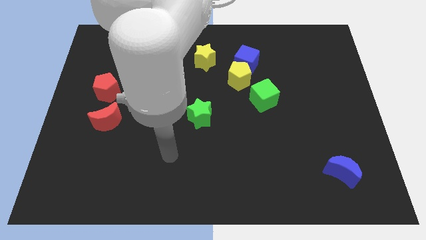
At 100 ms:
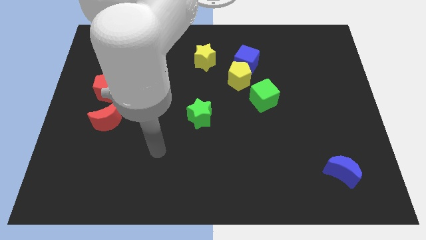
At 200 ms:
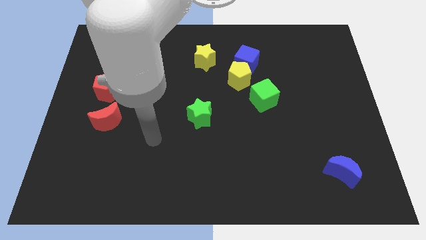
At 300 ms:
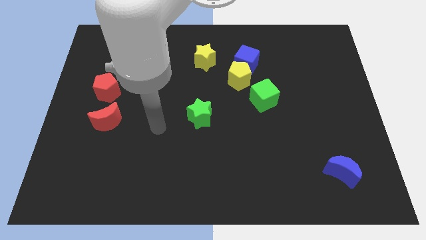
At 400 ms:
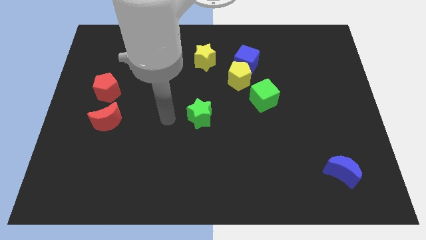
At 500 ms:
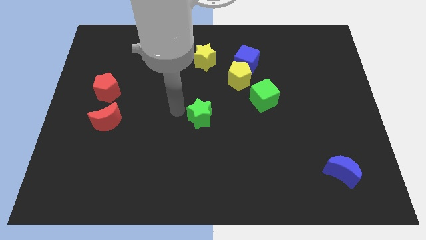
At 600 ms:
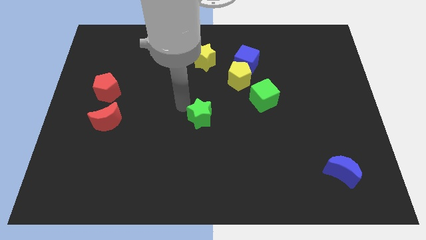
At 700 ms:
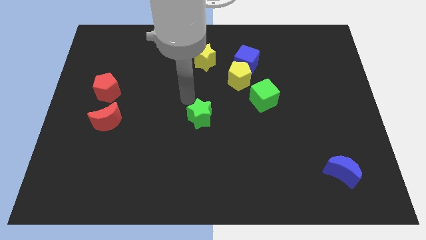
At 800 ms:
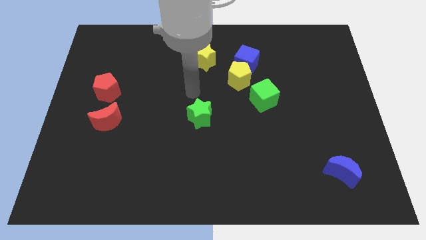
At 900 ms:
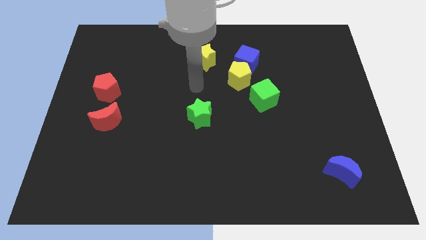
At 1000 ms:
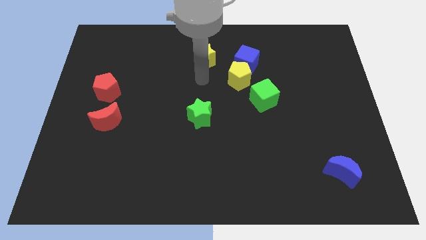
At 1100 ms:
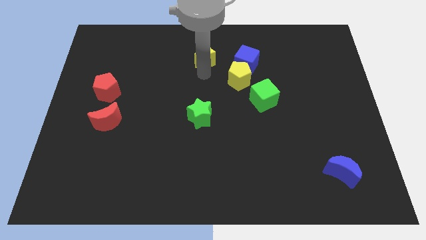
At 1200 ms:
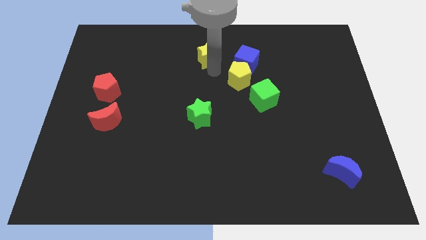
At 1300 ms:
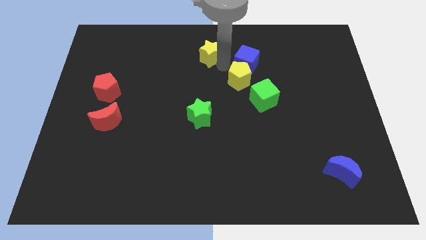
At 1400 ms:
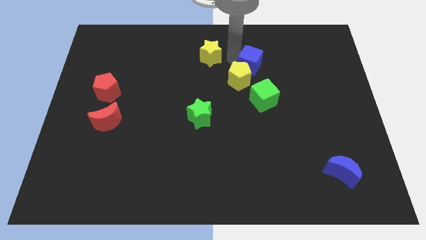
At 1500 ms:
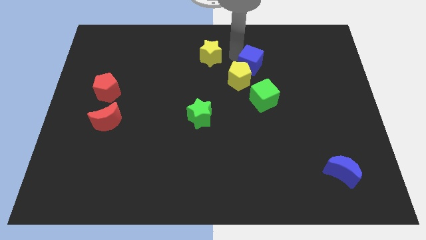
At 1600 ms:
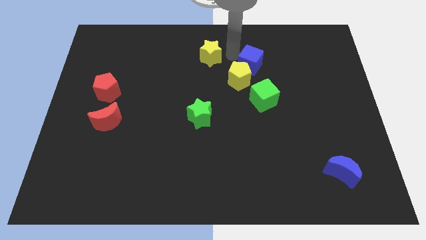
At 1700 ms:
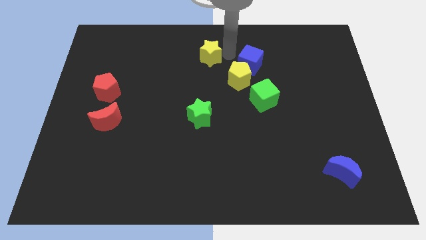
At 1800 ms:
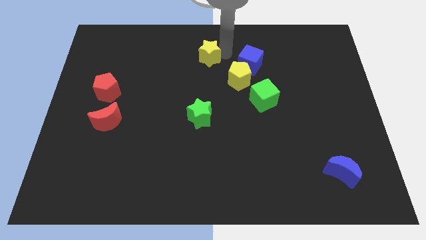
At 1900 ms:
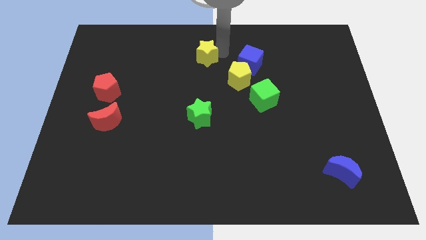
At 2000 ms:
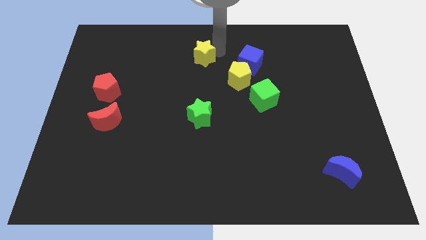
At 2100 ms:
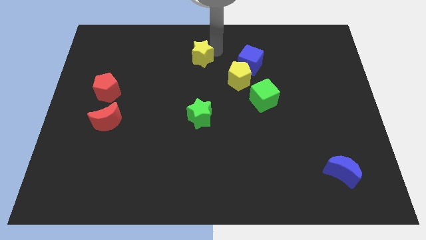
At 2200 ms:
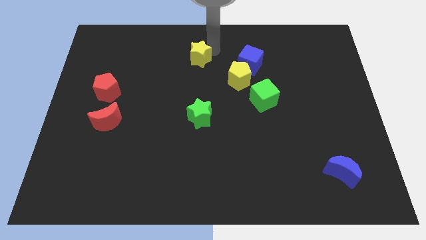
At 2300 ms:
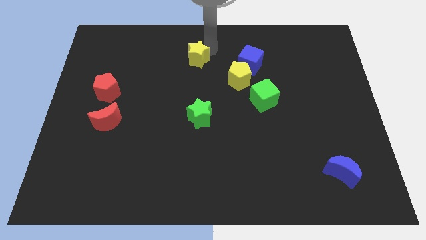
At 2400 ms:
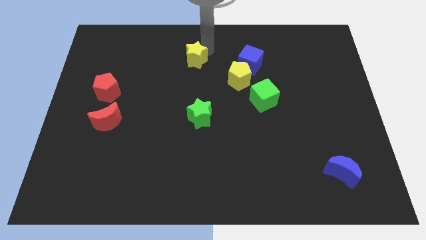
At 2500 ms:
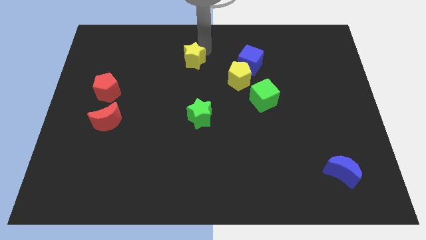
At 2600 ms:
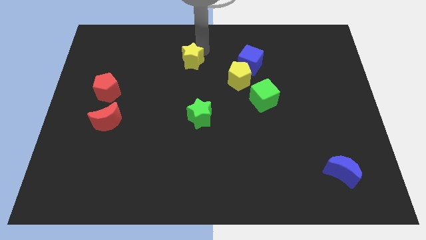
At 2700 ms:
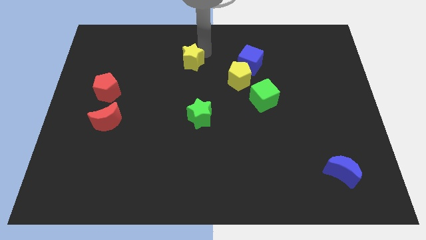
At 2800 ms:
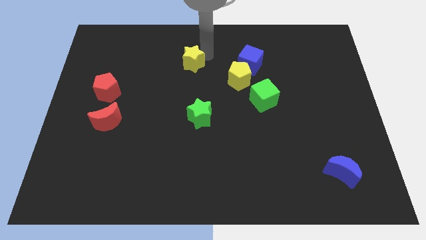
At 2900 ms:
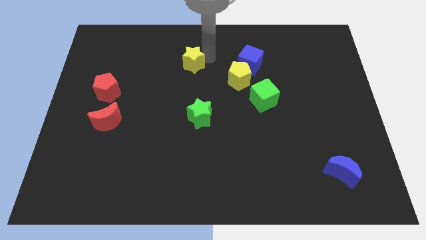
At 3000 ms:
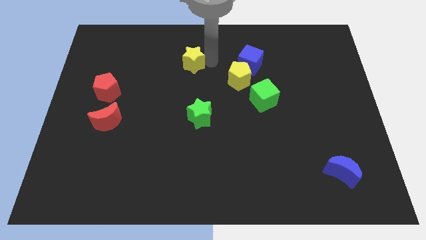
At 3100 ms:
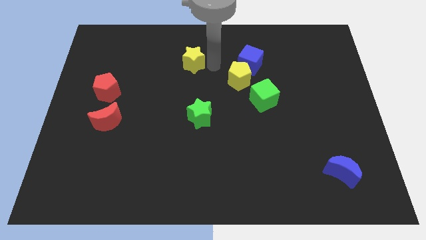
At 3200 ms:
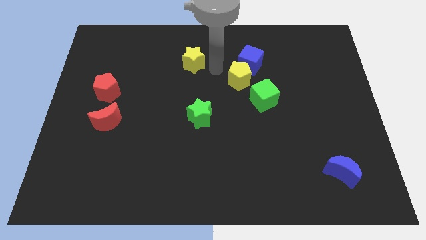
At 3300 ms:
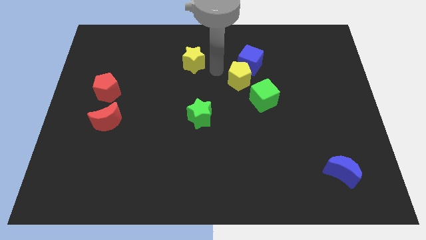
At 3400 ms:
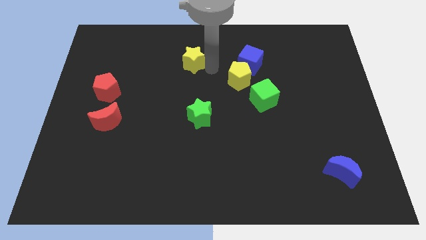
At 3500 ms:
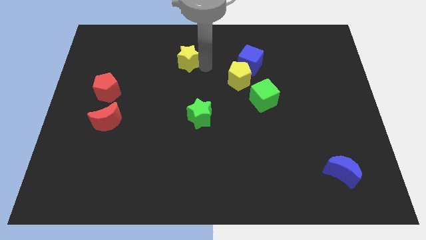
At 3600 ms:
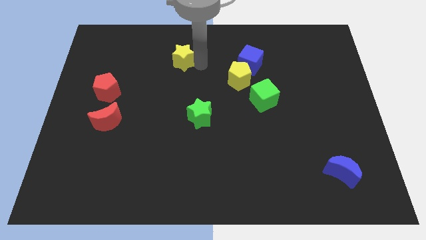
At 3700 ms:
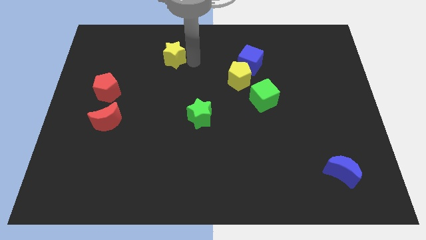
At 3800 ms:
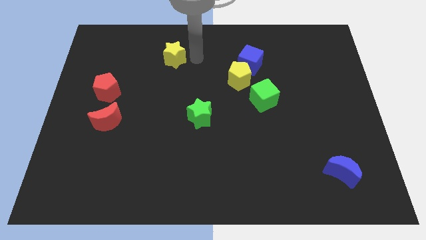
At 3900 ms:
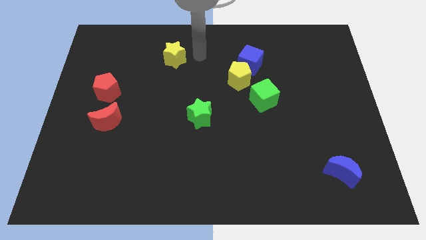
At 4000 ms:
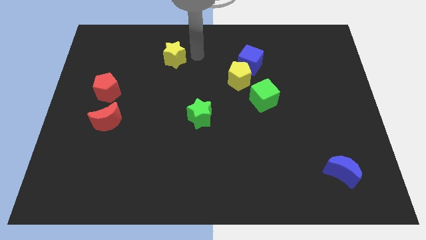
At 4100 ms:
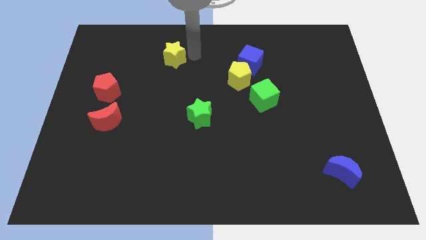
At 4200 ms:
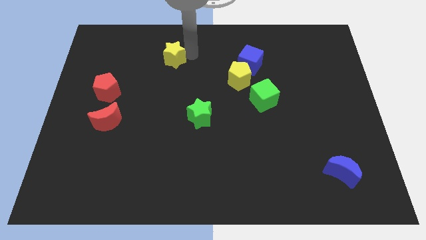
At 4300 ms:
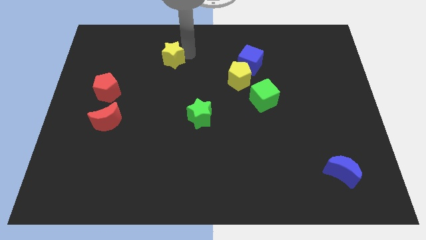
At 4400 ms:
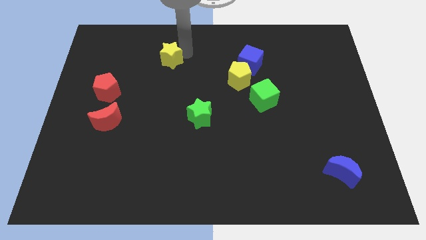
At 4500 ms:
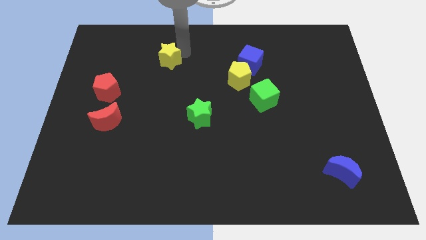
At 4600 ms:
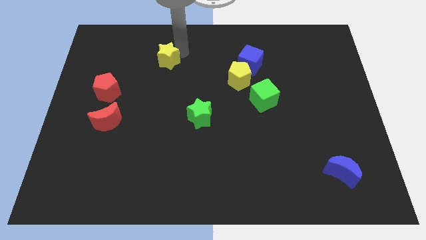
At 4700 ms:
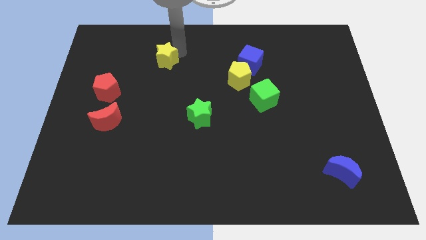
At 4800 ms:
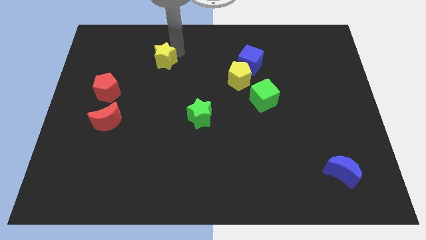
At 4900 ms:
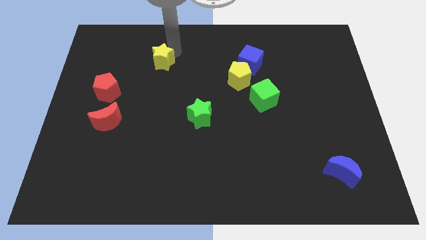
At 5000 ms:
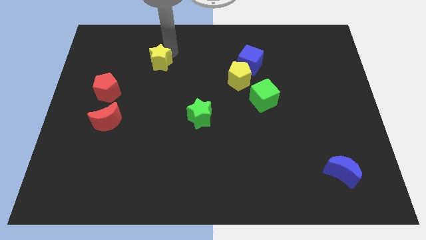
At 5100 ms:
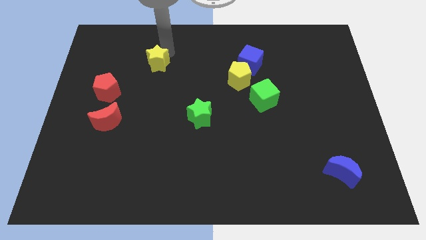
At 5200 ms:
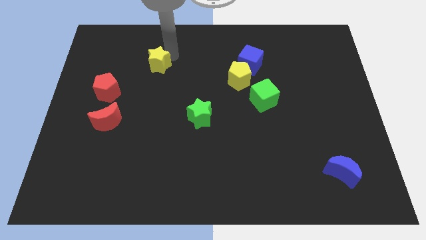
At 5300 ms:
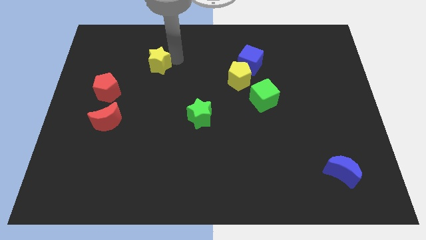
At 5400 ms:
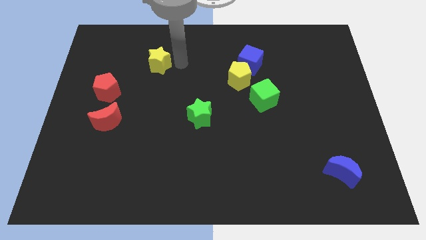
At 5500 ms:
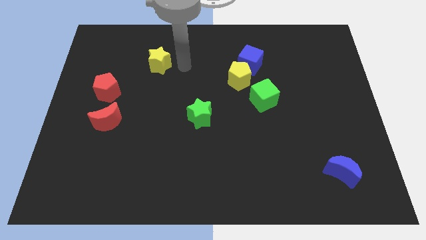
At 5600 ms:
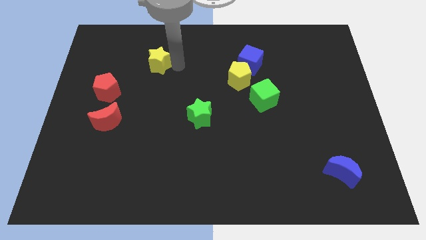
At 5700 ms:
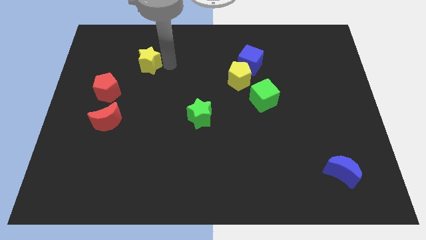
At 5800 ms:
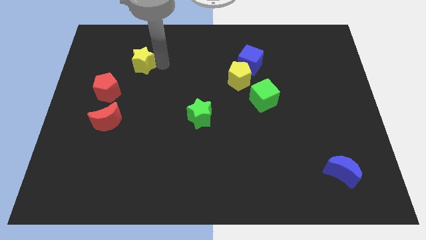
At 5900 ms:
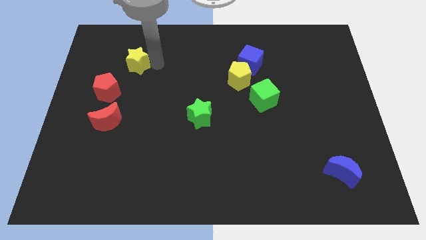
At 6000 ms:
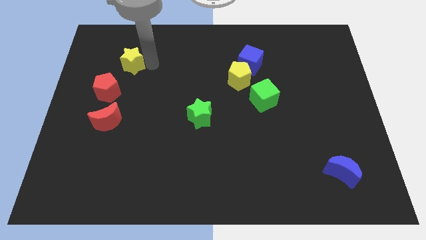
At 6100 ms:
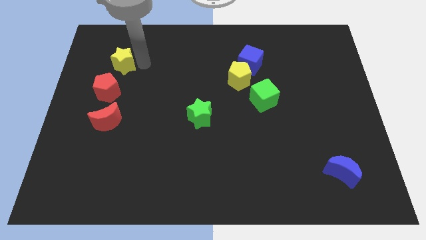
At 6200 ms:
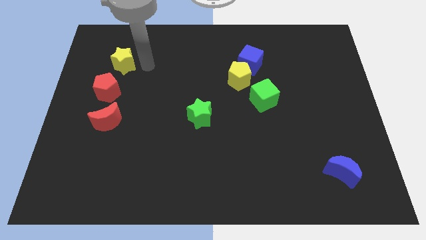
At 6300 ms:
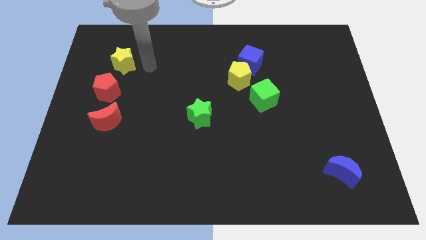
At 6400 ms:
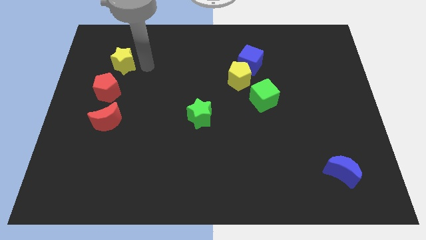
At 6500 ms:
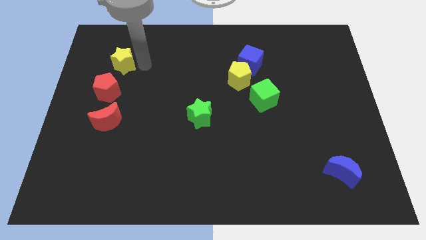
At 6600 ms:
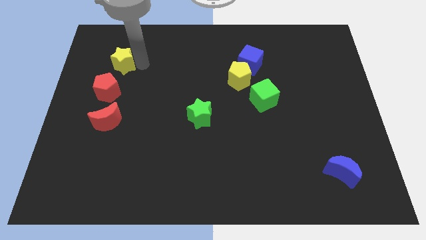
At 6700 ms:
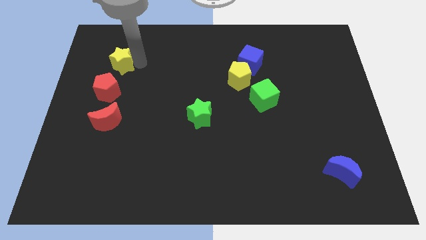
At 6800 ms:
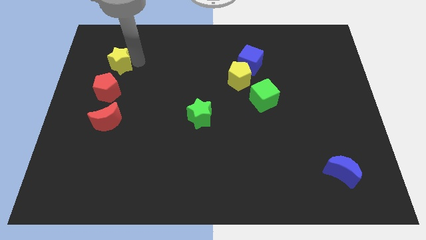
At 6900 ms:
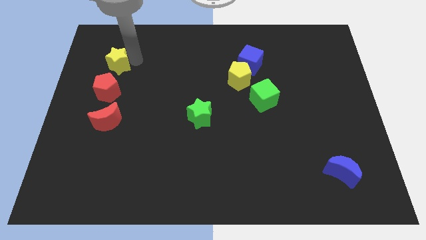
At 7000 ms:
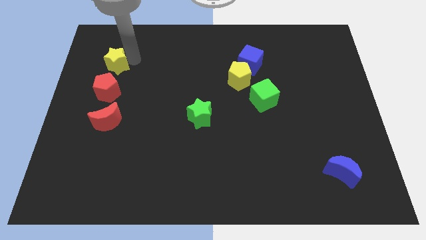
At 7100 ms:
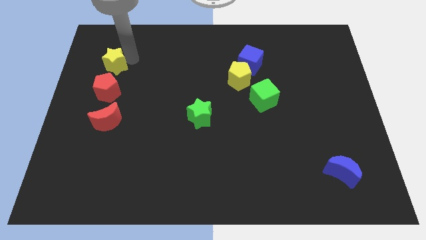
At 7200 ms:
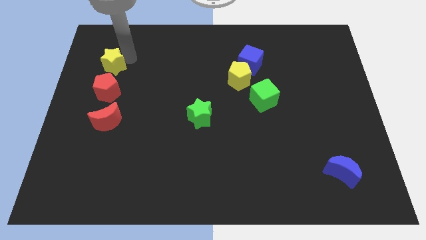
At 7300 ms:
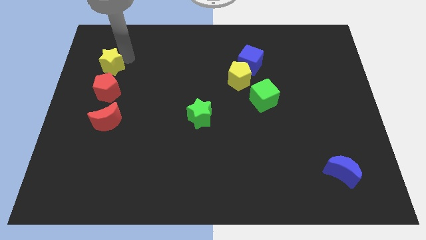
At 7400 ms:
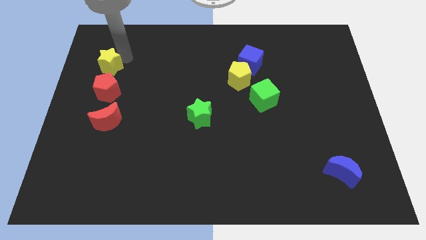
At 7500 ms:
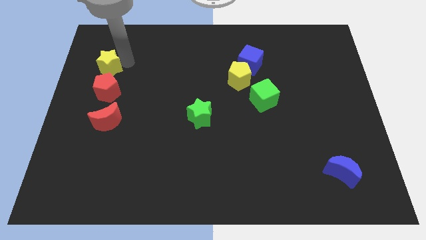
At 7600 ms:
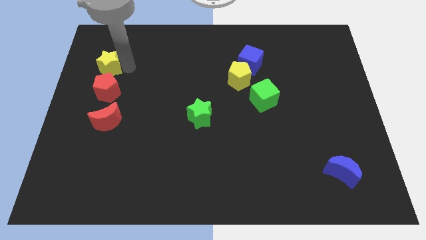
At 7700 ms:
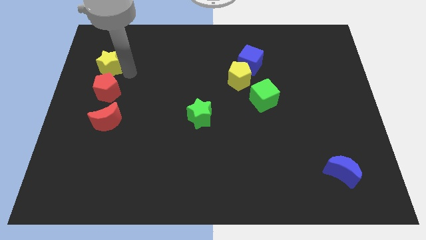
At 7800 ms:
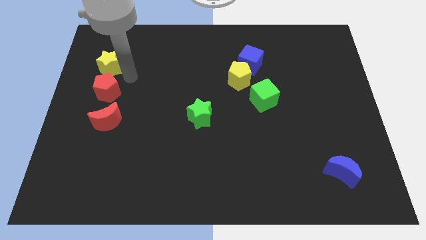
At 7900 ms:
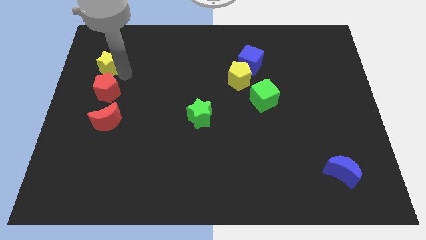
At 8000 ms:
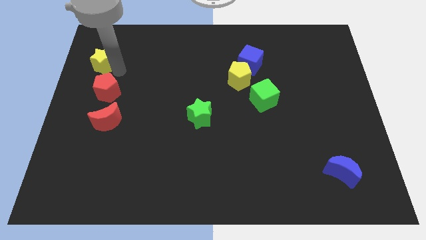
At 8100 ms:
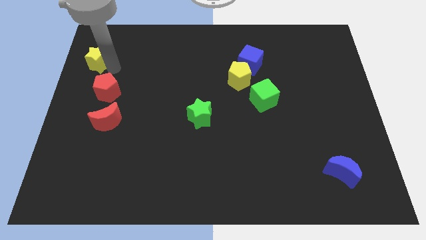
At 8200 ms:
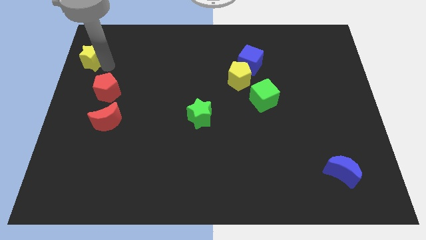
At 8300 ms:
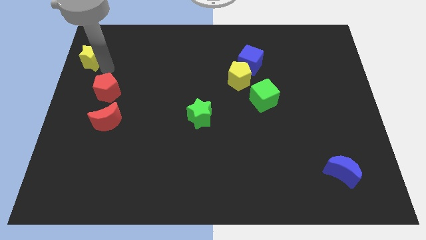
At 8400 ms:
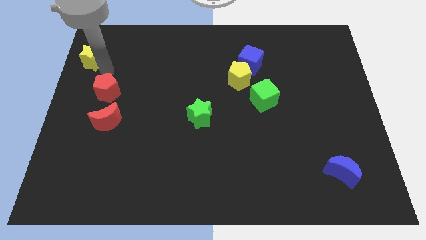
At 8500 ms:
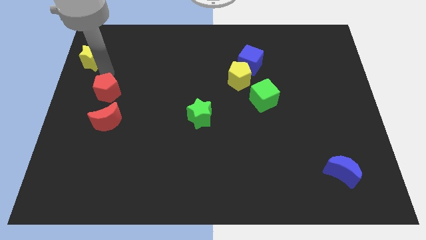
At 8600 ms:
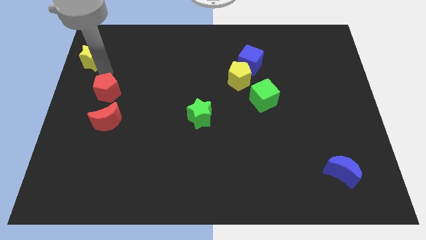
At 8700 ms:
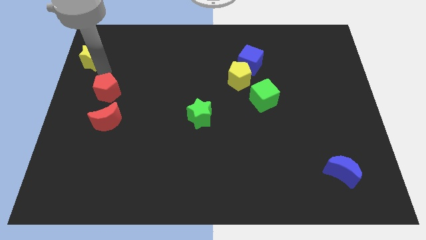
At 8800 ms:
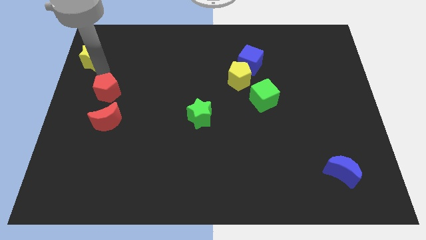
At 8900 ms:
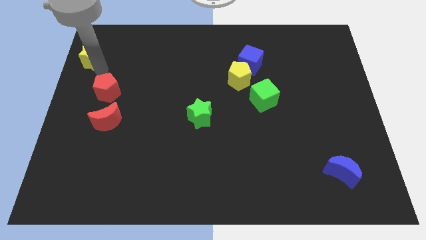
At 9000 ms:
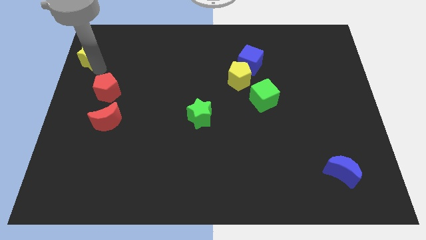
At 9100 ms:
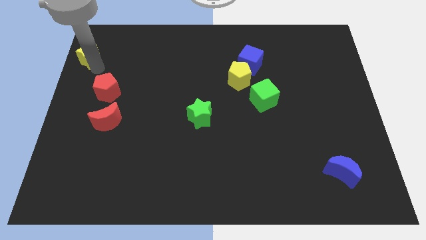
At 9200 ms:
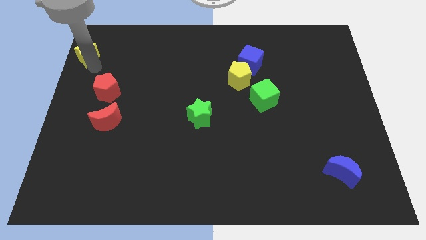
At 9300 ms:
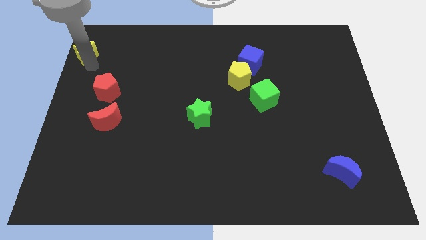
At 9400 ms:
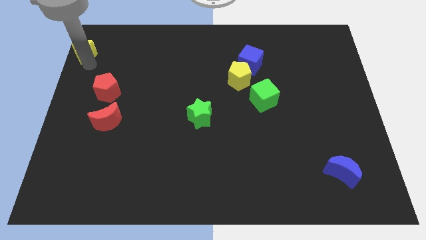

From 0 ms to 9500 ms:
put the yellow star to the upper left corner
